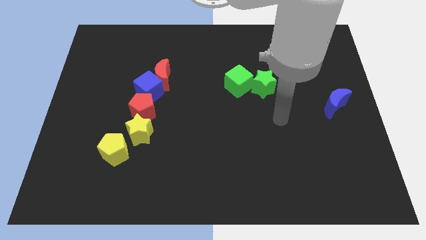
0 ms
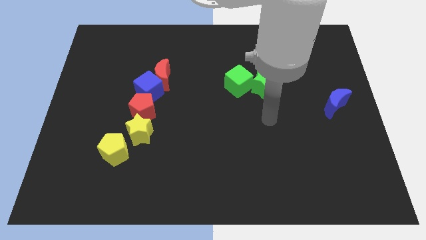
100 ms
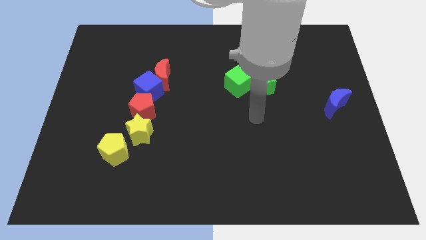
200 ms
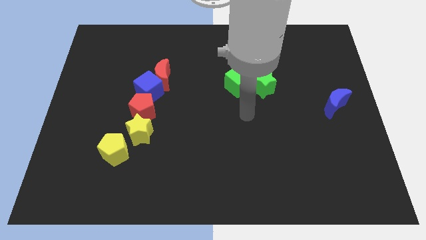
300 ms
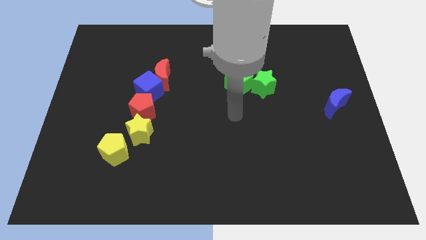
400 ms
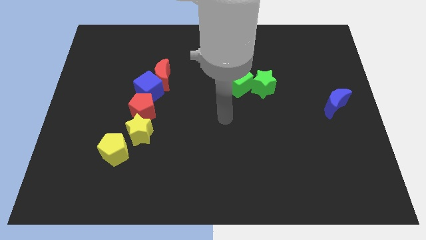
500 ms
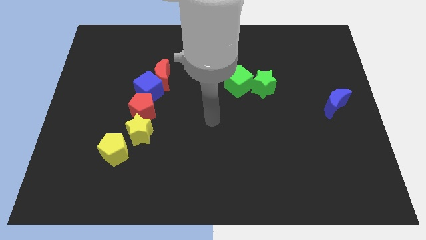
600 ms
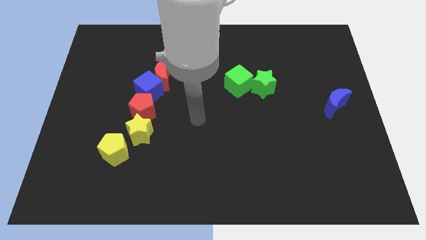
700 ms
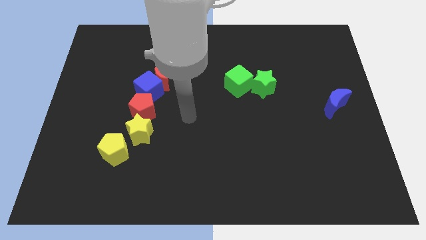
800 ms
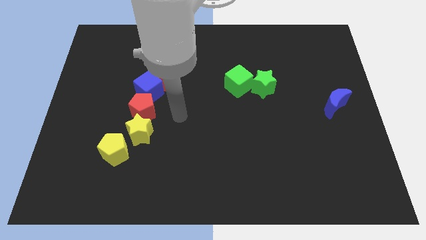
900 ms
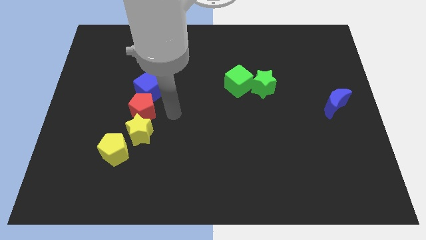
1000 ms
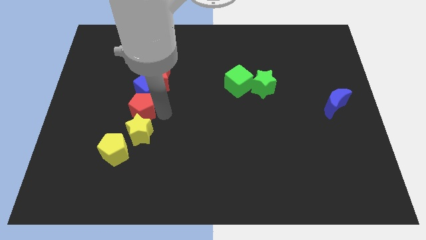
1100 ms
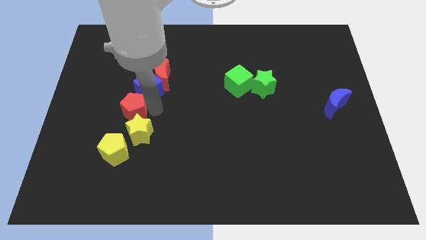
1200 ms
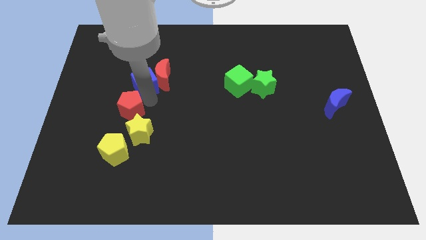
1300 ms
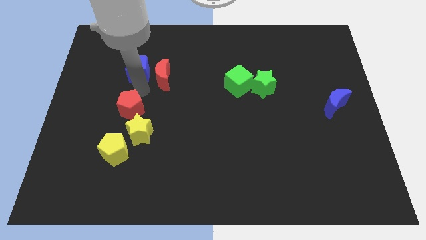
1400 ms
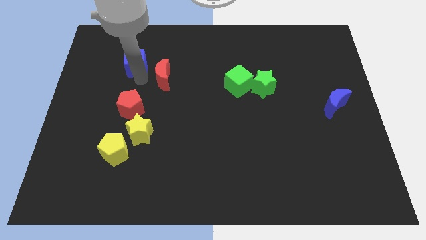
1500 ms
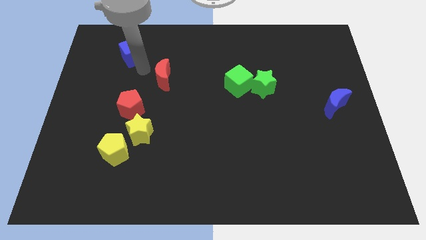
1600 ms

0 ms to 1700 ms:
move the red moon away from the blue cube

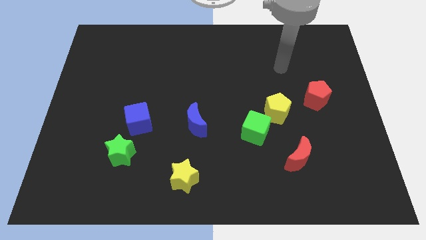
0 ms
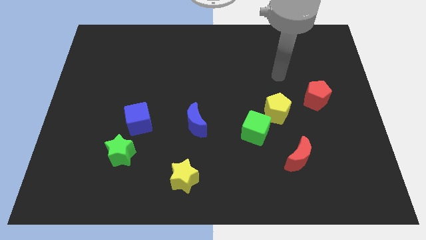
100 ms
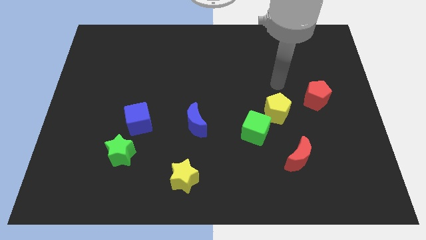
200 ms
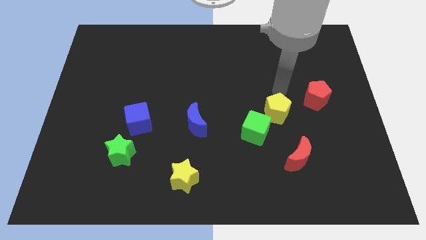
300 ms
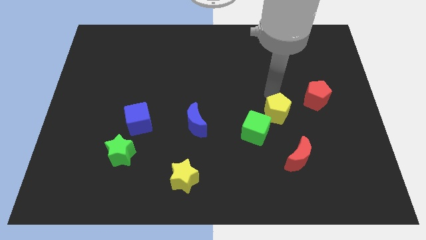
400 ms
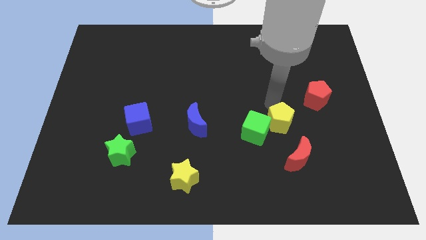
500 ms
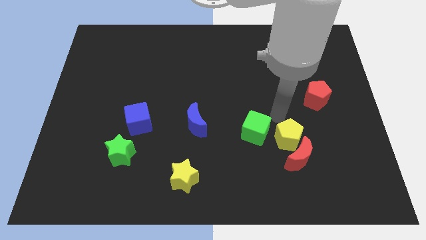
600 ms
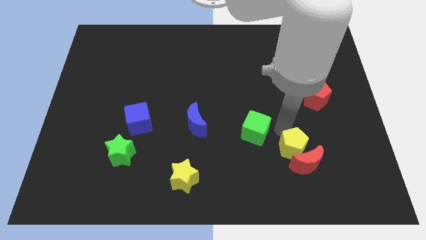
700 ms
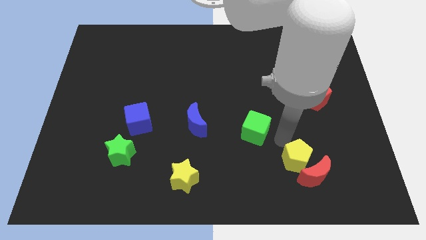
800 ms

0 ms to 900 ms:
pull the green cube apart from the yellow pentagon

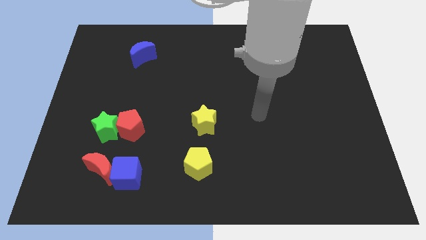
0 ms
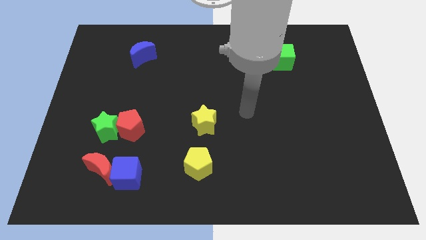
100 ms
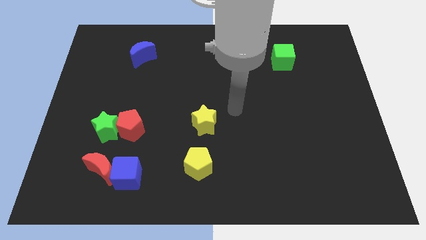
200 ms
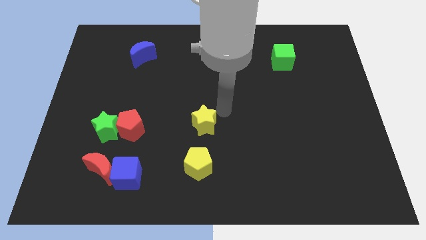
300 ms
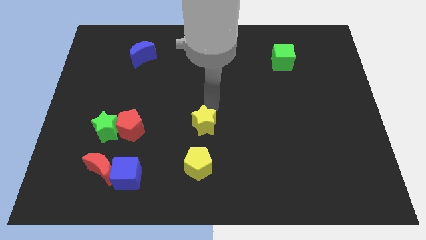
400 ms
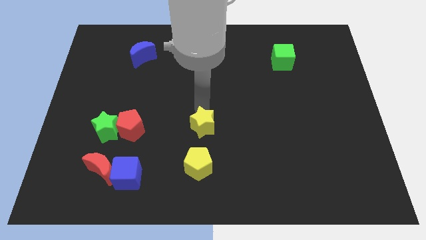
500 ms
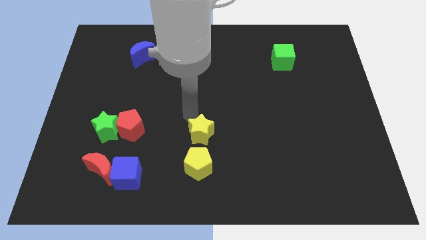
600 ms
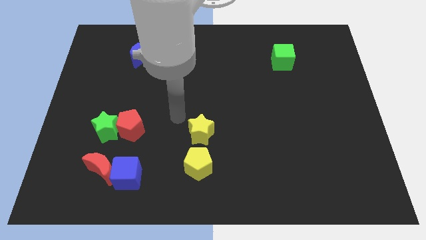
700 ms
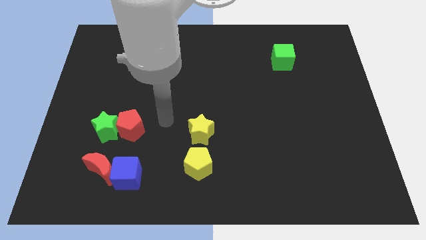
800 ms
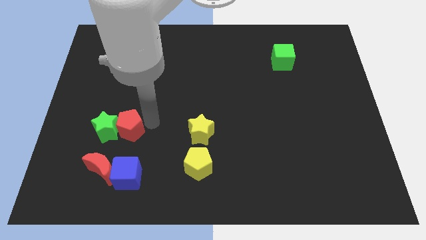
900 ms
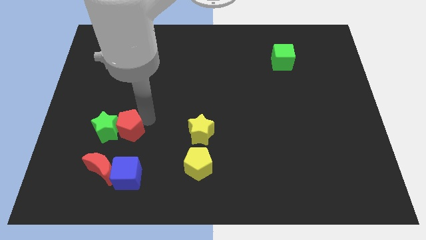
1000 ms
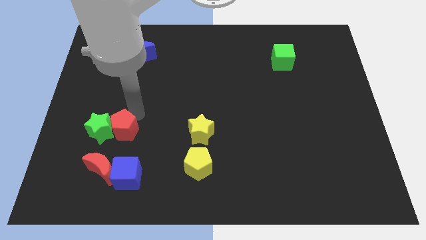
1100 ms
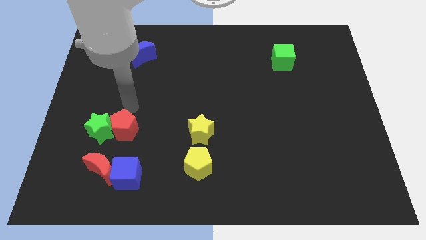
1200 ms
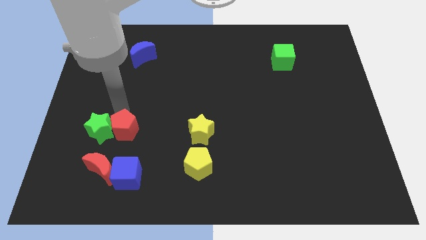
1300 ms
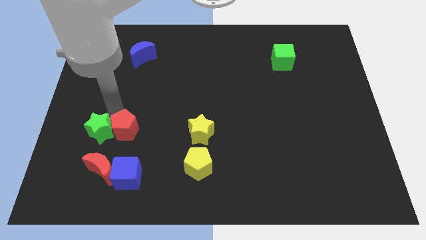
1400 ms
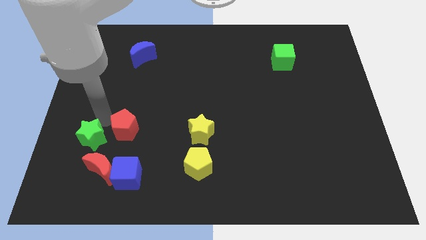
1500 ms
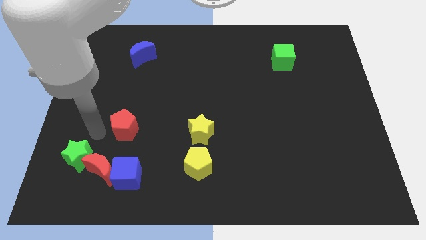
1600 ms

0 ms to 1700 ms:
pull the red pentagon apart from the green star

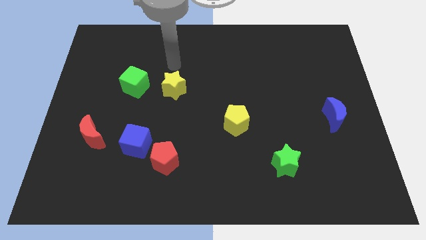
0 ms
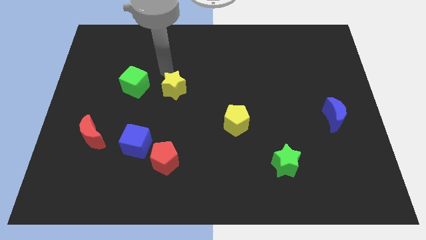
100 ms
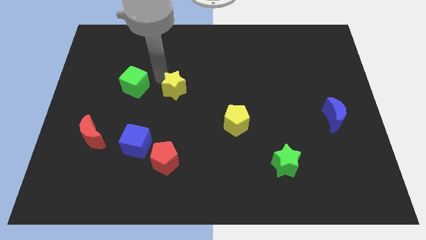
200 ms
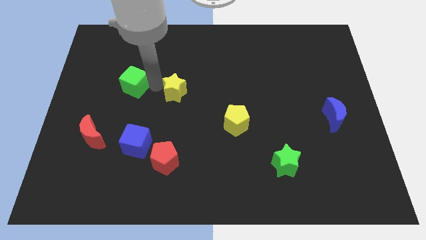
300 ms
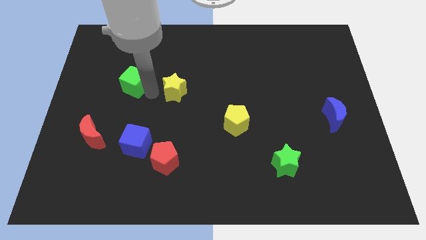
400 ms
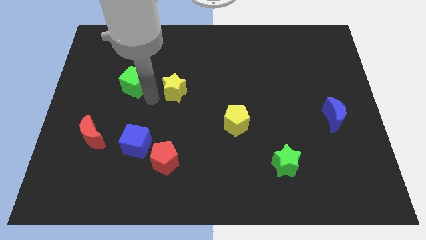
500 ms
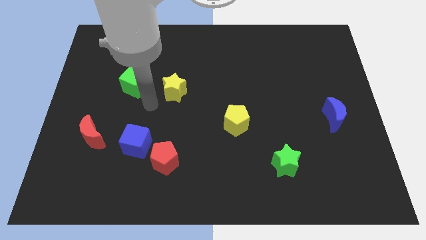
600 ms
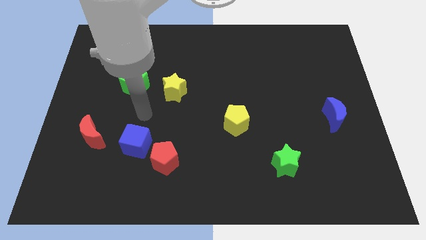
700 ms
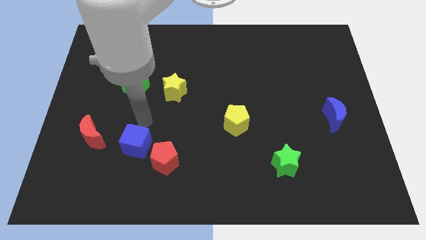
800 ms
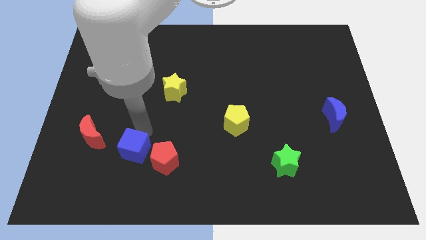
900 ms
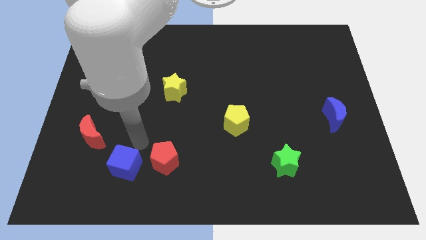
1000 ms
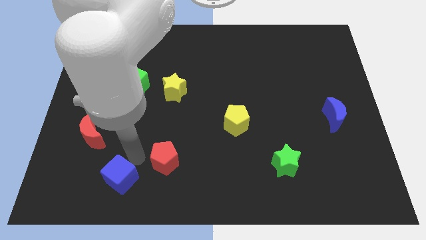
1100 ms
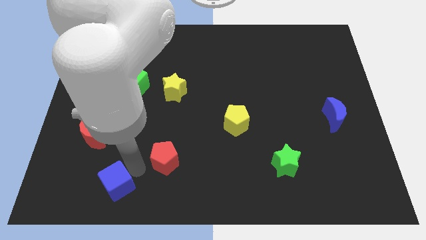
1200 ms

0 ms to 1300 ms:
pull the red pentagon apart from the blue cube

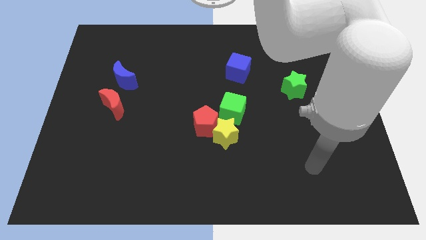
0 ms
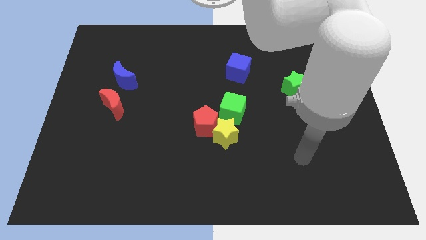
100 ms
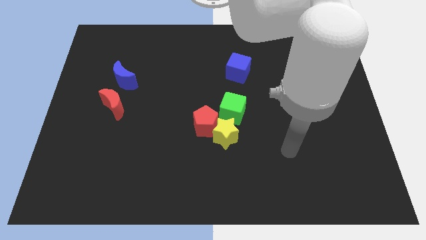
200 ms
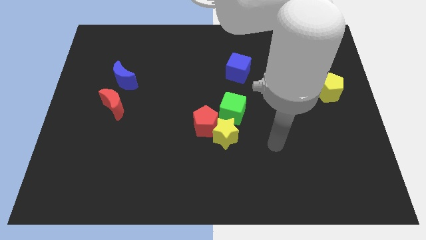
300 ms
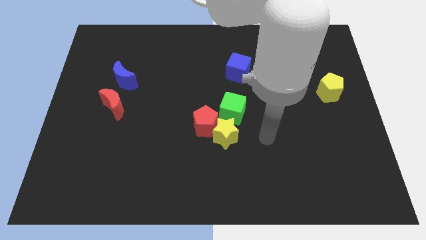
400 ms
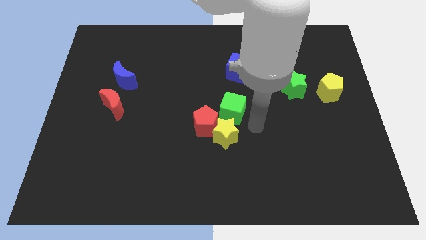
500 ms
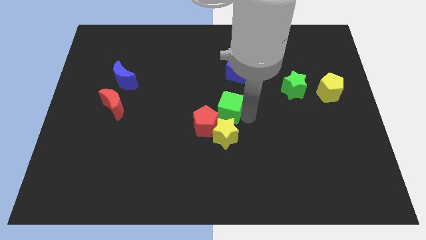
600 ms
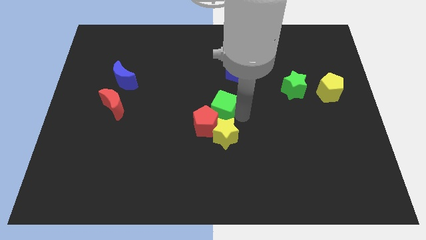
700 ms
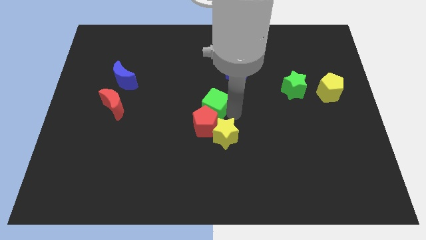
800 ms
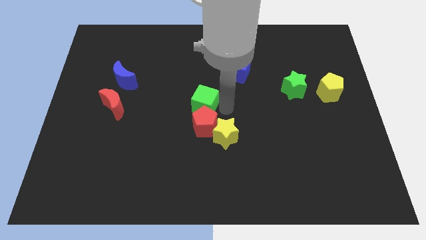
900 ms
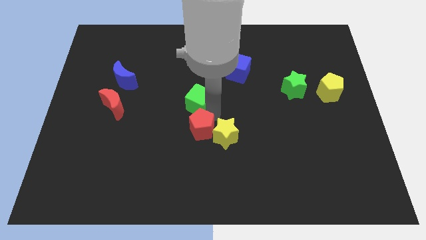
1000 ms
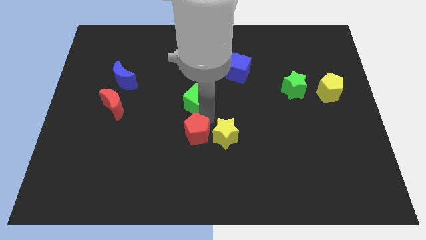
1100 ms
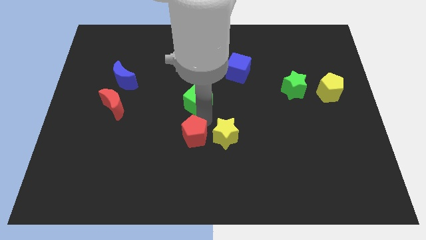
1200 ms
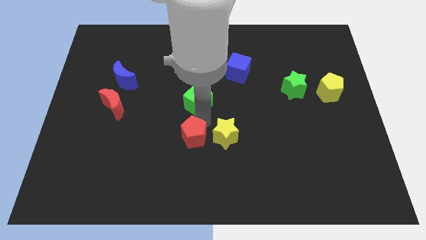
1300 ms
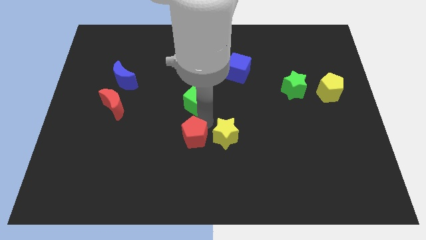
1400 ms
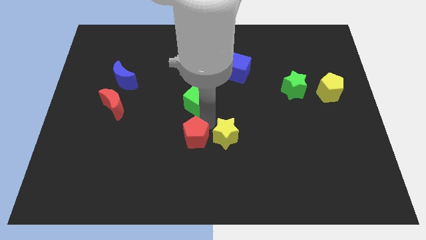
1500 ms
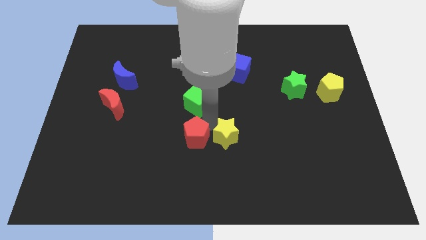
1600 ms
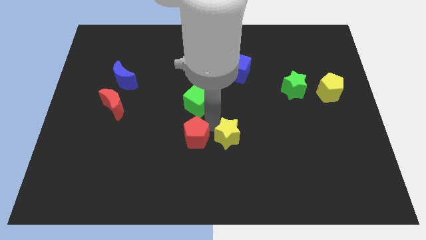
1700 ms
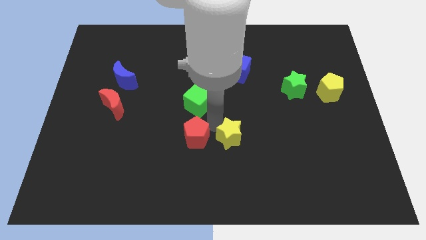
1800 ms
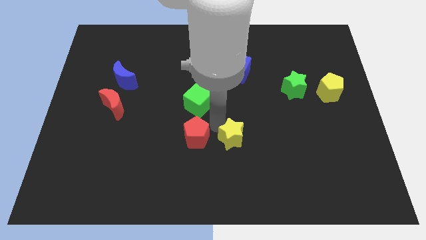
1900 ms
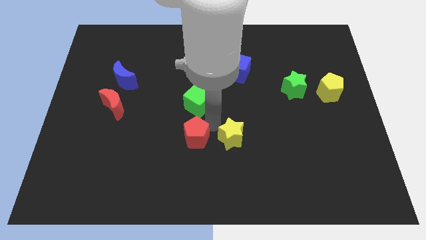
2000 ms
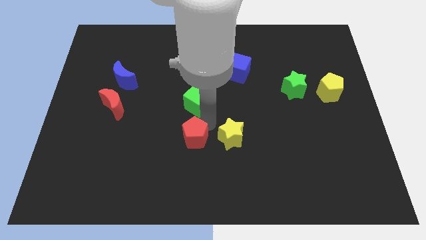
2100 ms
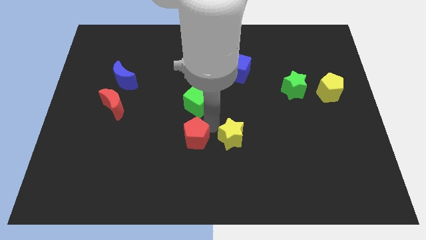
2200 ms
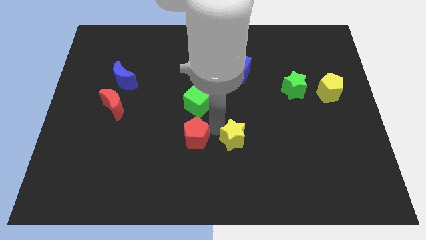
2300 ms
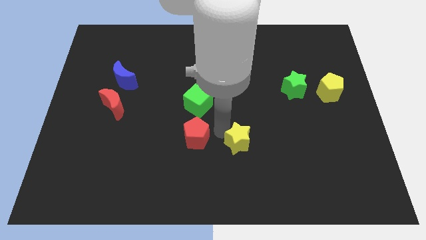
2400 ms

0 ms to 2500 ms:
move the yellow star away from the red pentagon and green cube

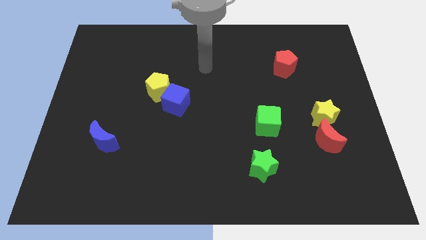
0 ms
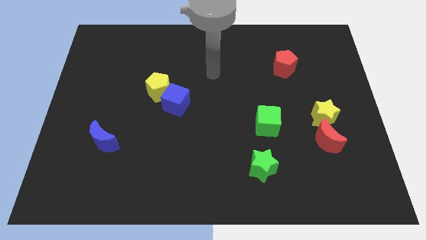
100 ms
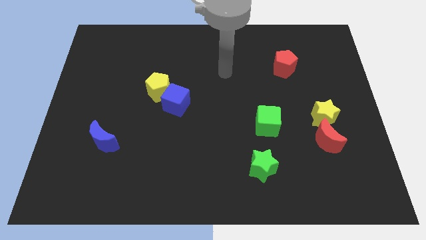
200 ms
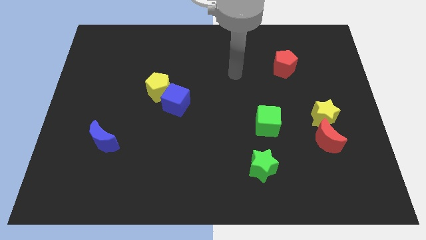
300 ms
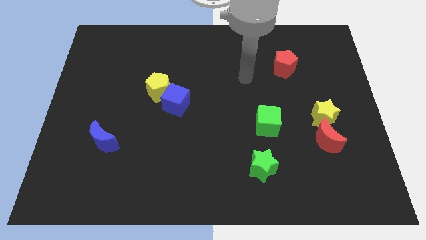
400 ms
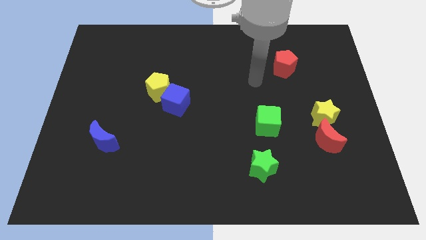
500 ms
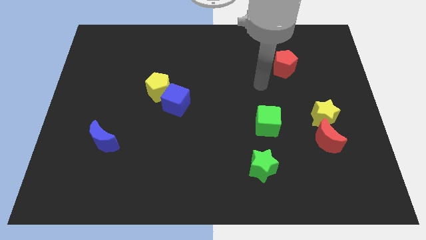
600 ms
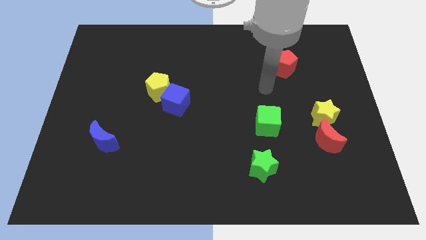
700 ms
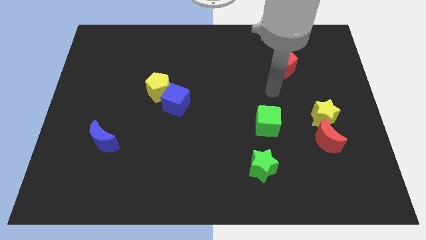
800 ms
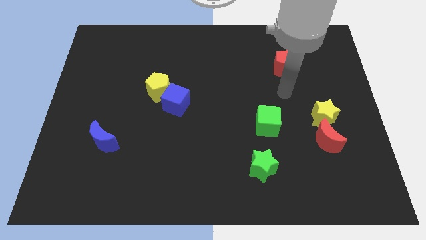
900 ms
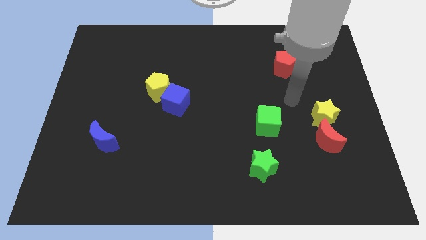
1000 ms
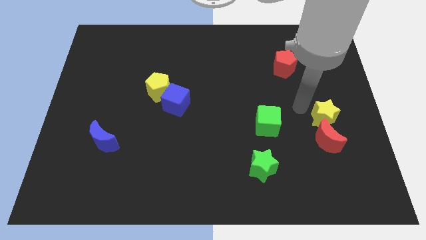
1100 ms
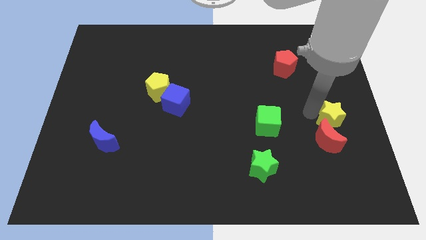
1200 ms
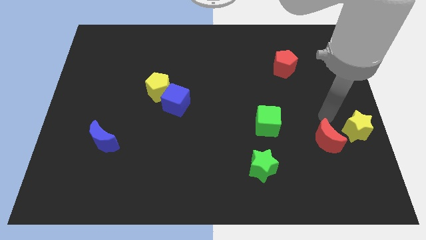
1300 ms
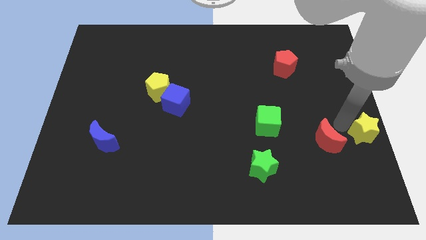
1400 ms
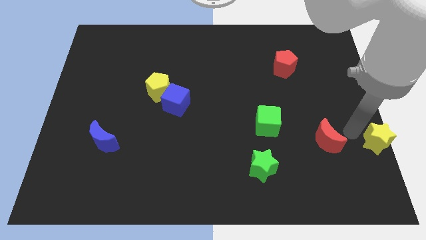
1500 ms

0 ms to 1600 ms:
pull the red moon apart from the yellow star
